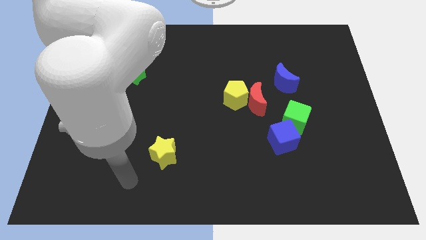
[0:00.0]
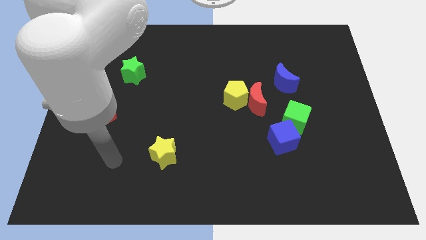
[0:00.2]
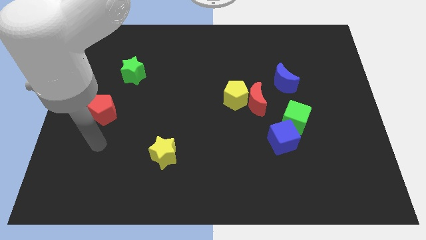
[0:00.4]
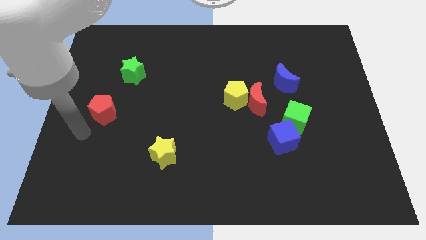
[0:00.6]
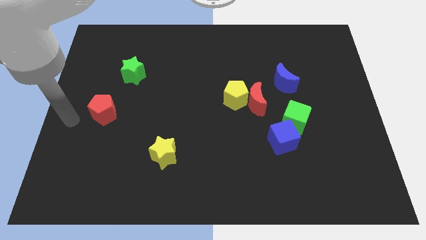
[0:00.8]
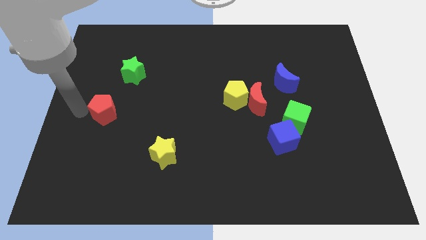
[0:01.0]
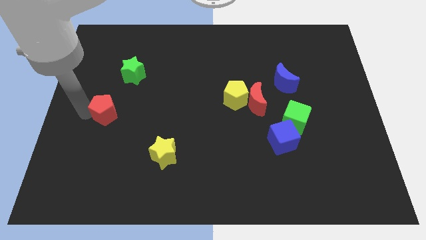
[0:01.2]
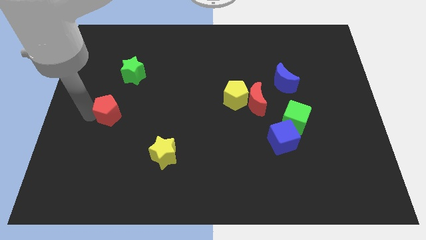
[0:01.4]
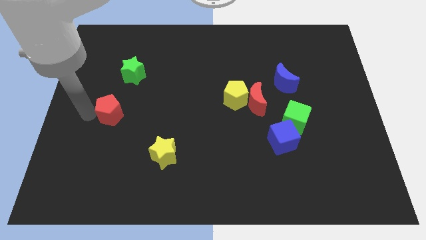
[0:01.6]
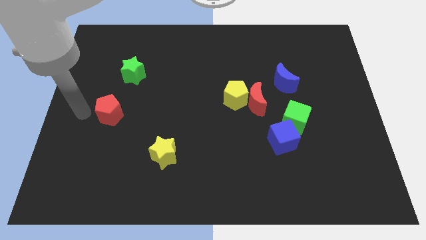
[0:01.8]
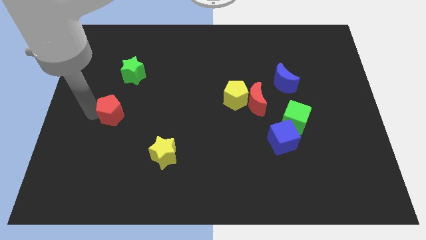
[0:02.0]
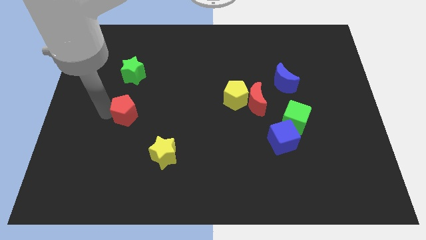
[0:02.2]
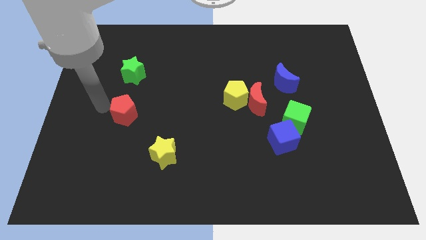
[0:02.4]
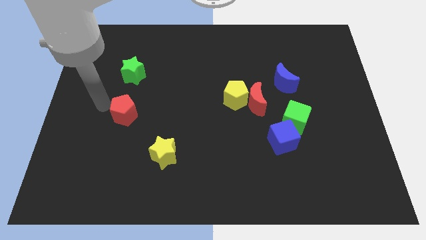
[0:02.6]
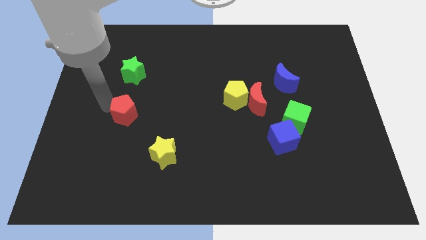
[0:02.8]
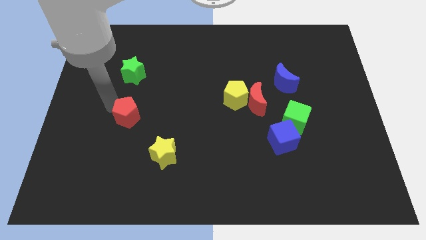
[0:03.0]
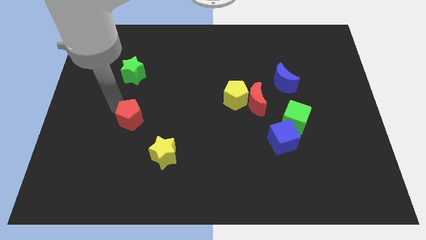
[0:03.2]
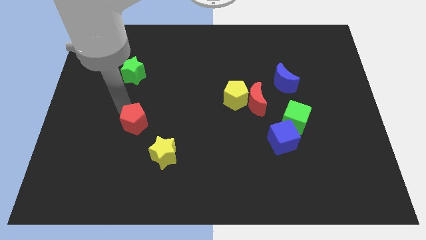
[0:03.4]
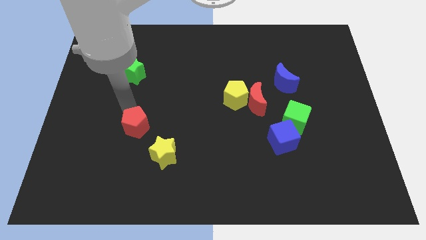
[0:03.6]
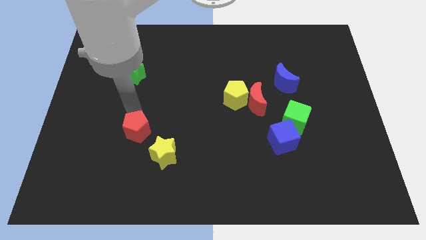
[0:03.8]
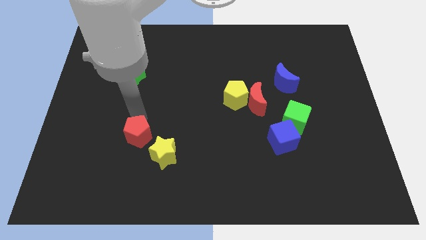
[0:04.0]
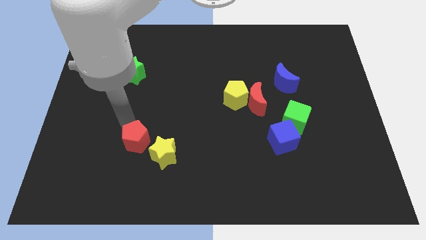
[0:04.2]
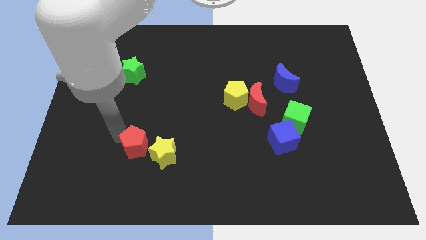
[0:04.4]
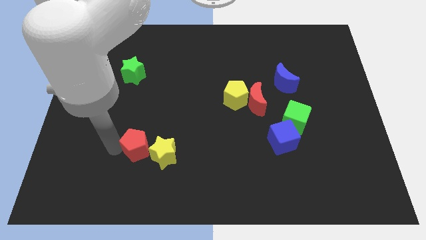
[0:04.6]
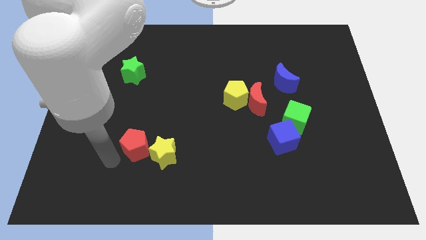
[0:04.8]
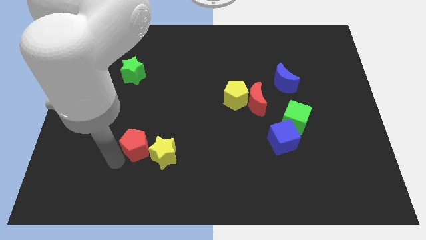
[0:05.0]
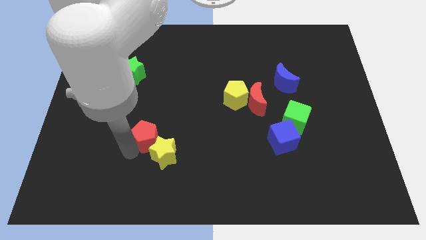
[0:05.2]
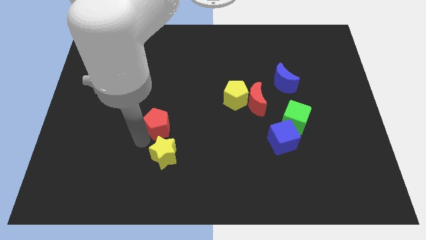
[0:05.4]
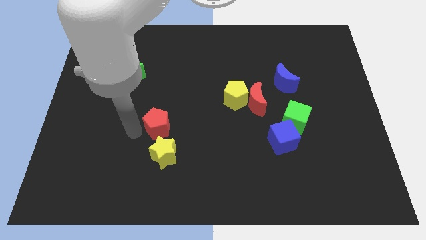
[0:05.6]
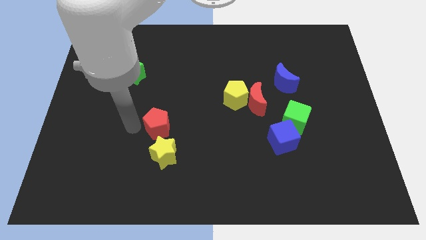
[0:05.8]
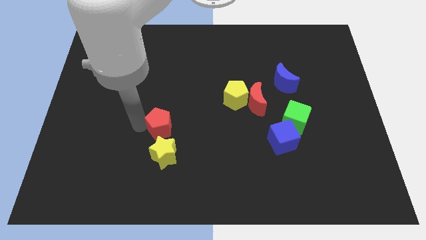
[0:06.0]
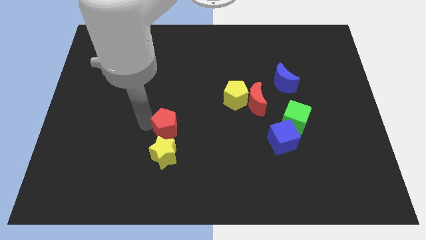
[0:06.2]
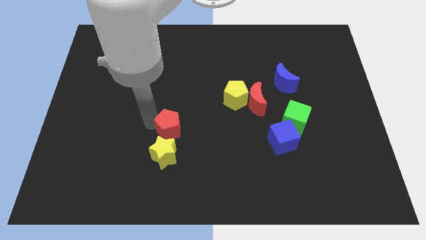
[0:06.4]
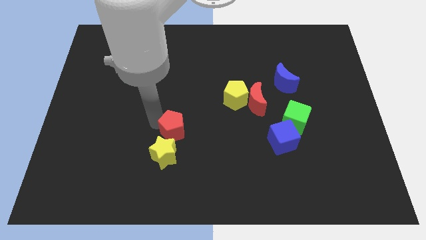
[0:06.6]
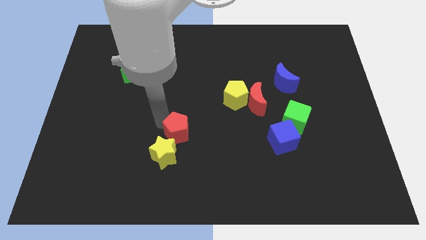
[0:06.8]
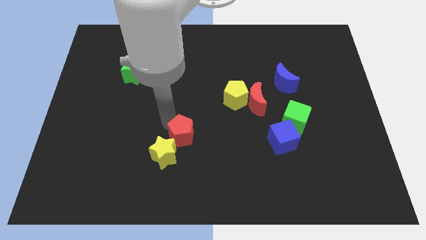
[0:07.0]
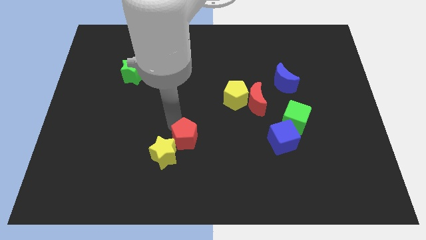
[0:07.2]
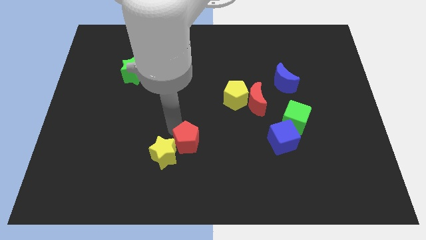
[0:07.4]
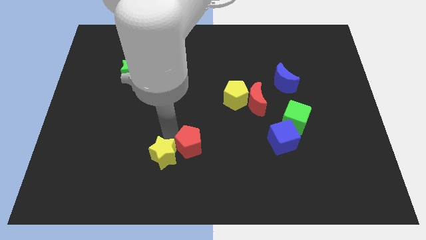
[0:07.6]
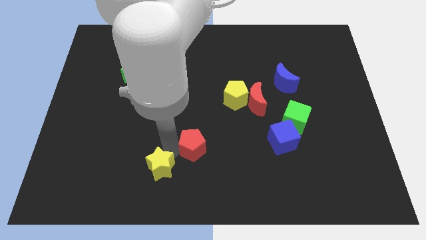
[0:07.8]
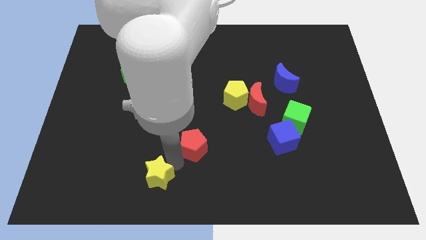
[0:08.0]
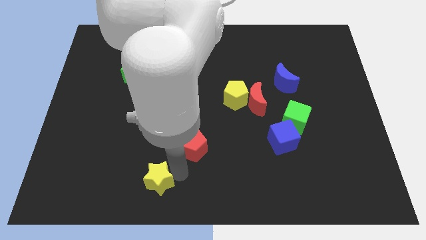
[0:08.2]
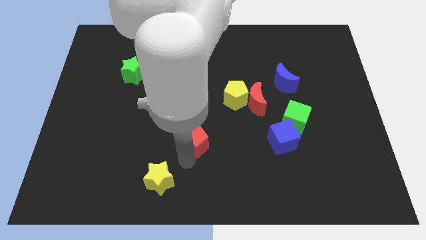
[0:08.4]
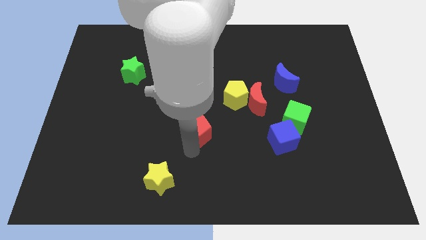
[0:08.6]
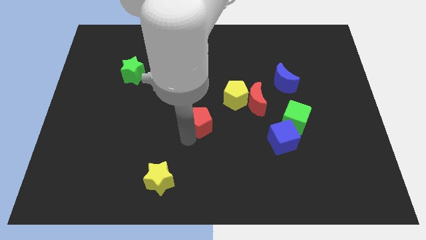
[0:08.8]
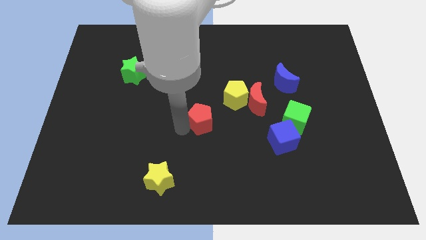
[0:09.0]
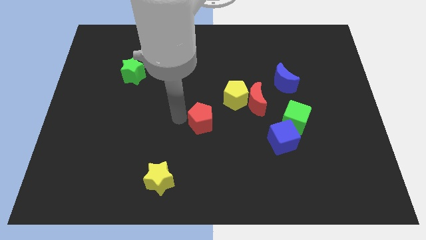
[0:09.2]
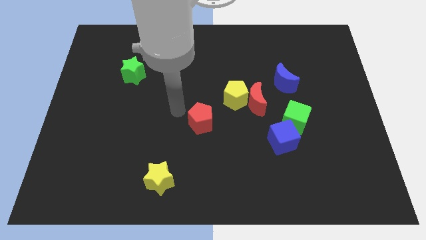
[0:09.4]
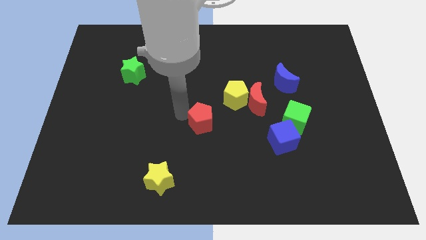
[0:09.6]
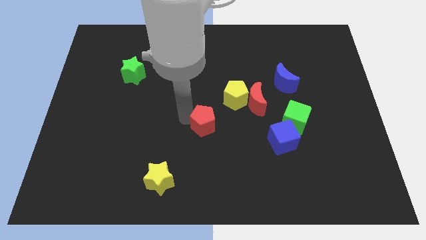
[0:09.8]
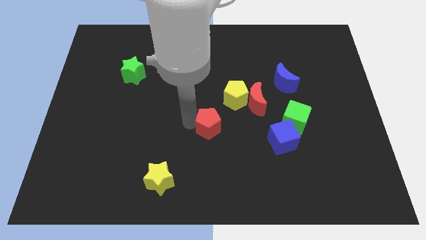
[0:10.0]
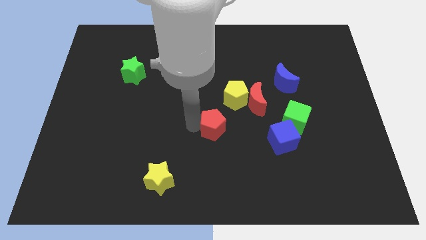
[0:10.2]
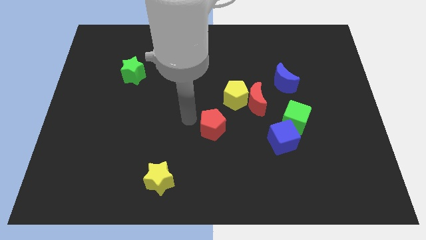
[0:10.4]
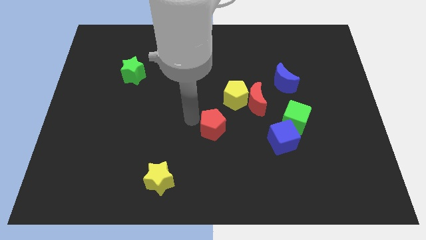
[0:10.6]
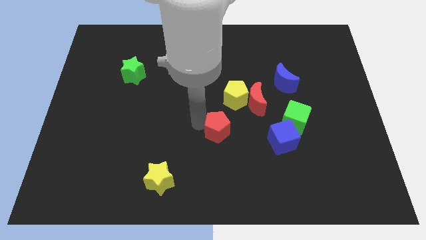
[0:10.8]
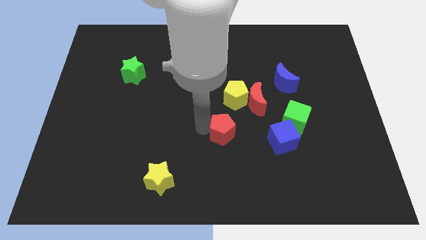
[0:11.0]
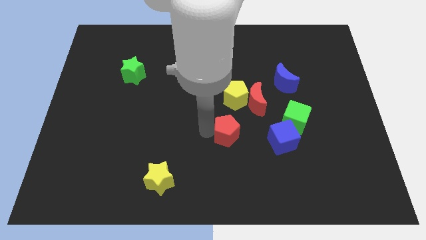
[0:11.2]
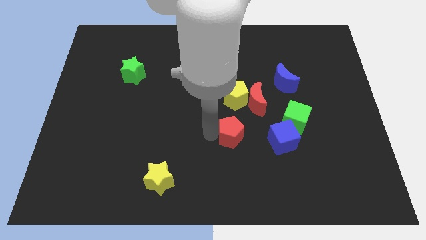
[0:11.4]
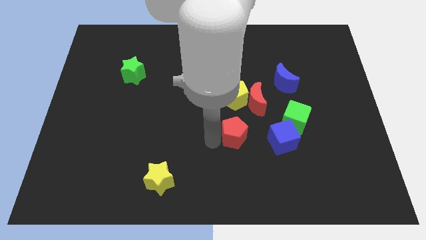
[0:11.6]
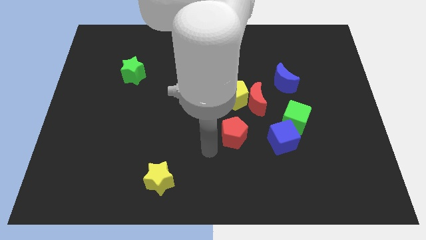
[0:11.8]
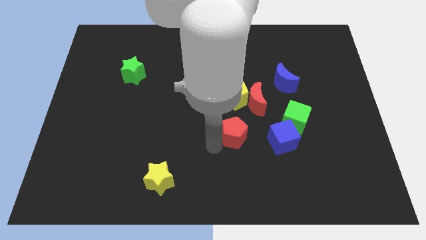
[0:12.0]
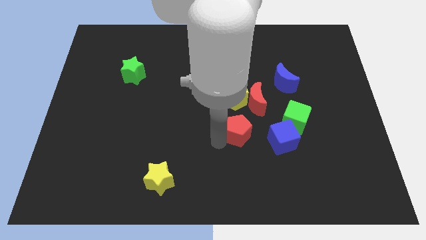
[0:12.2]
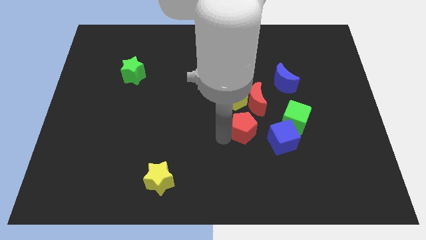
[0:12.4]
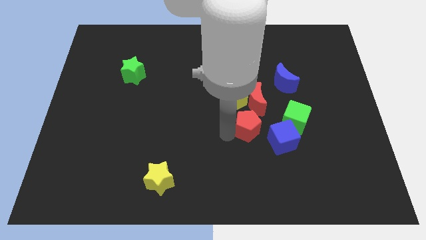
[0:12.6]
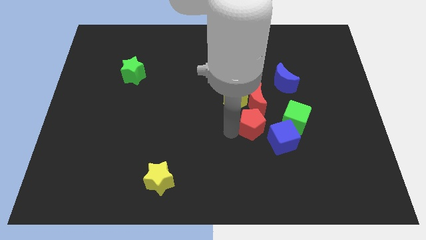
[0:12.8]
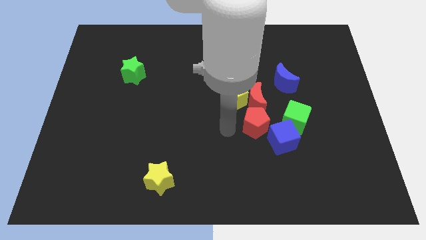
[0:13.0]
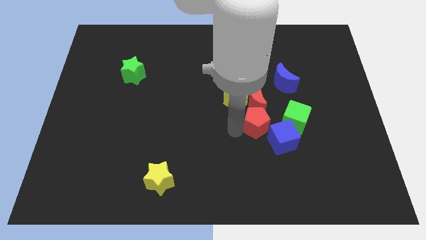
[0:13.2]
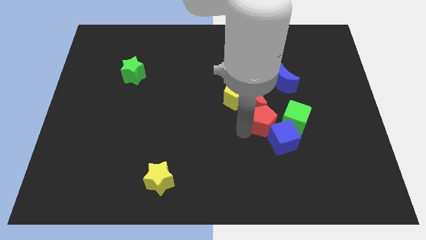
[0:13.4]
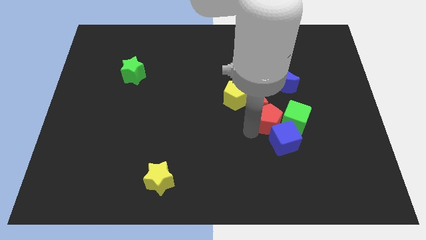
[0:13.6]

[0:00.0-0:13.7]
move the red pentagon close to the green cube
